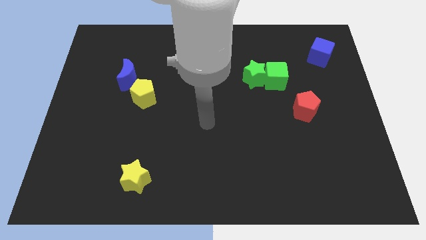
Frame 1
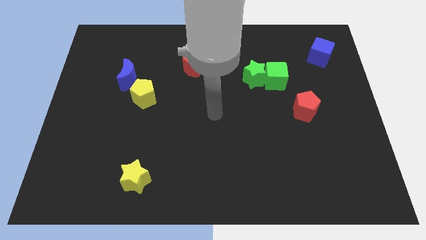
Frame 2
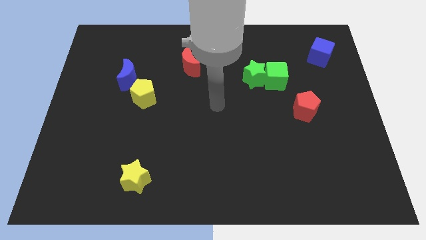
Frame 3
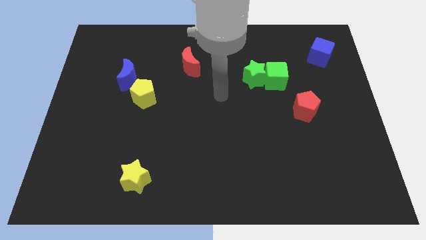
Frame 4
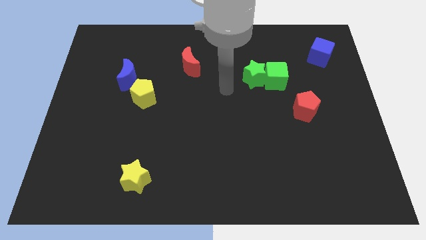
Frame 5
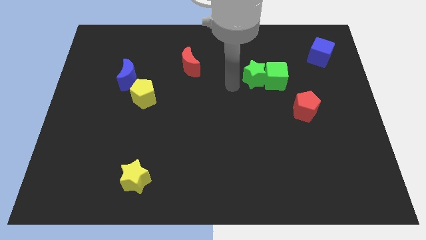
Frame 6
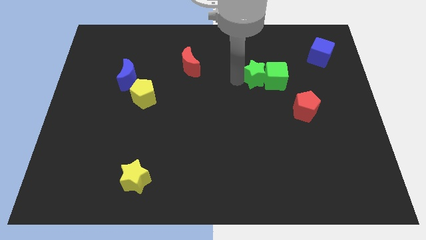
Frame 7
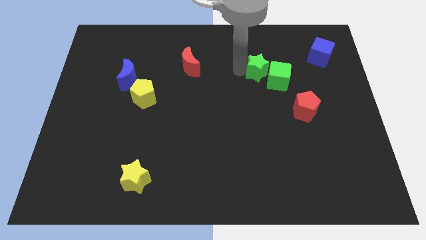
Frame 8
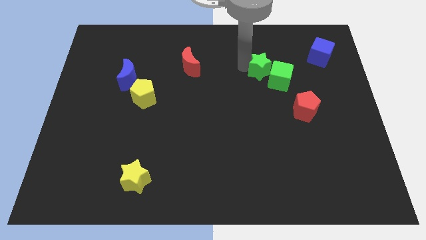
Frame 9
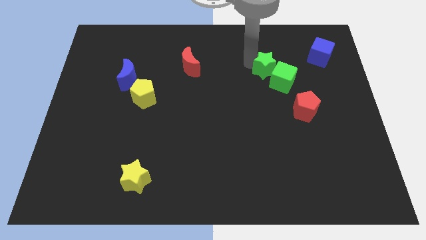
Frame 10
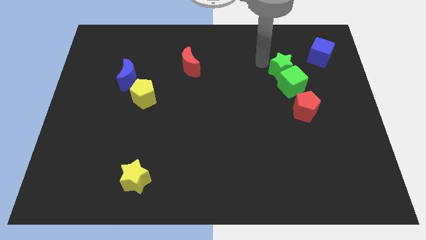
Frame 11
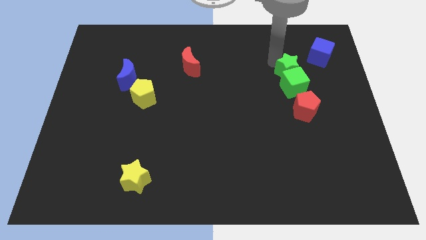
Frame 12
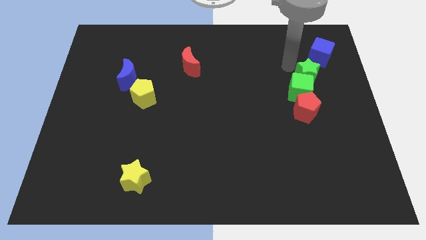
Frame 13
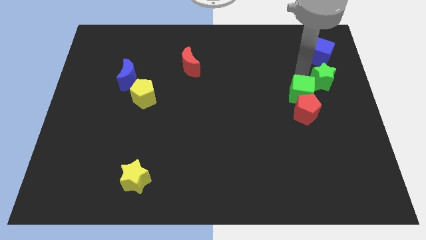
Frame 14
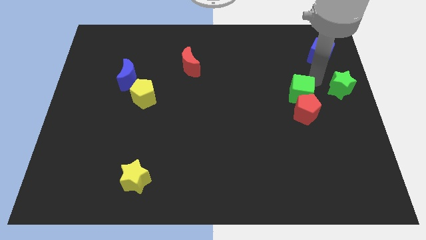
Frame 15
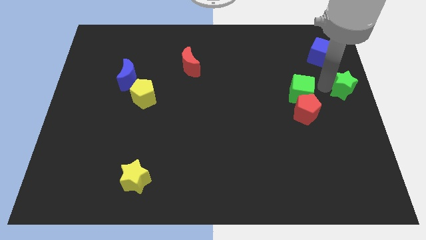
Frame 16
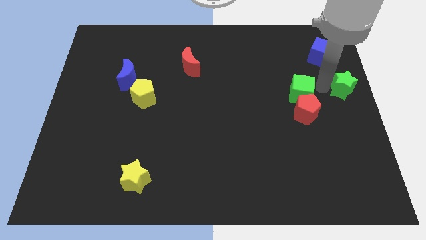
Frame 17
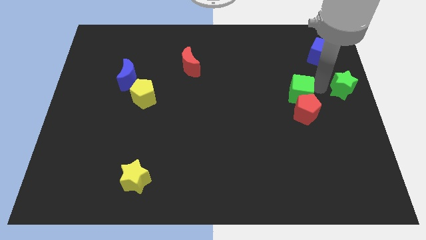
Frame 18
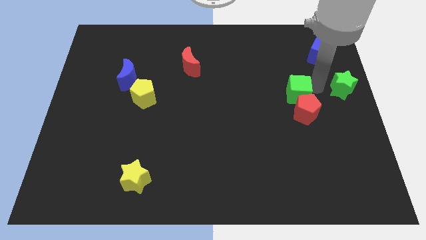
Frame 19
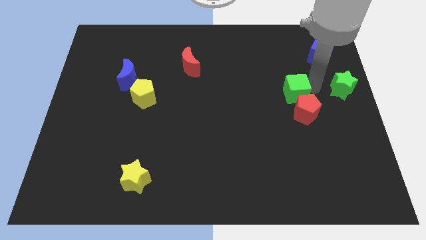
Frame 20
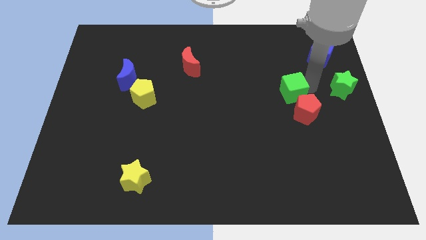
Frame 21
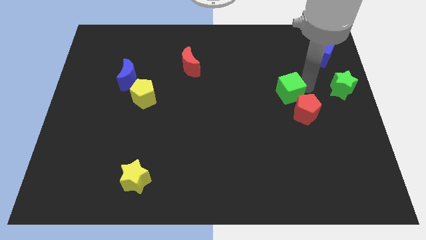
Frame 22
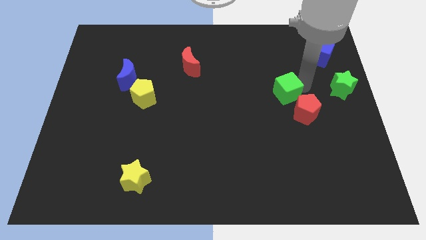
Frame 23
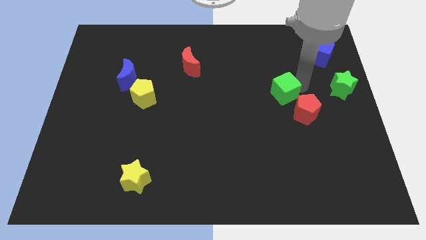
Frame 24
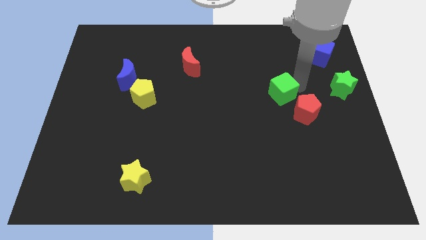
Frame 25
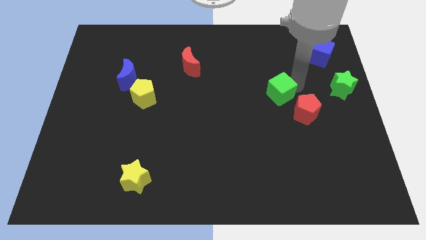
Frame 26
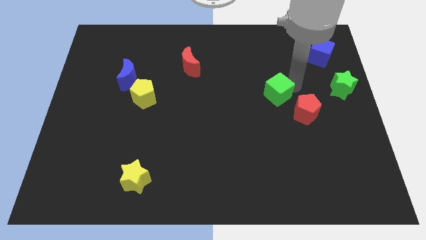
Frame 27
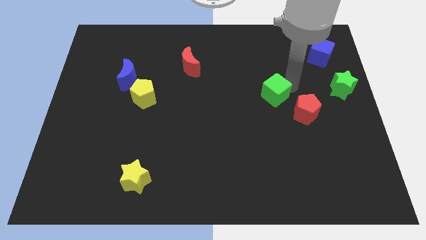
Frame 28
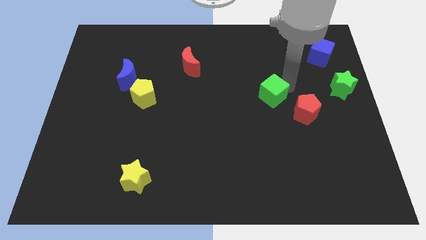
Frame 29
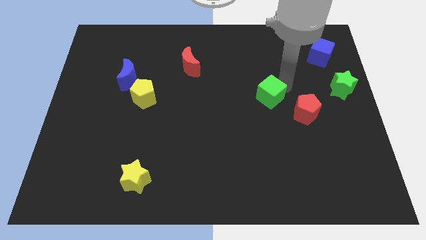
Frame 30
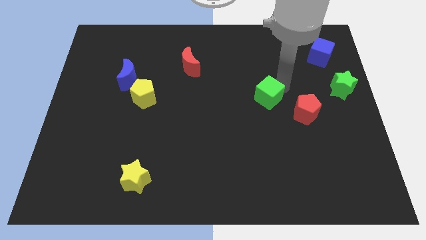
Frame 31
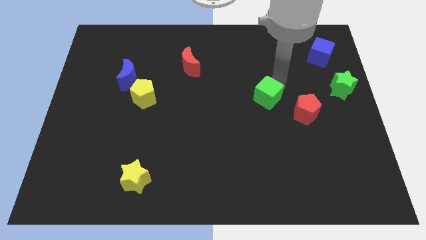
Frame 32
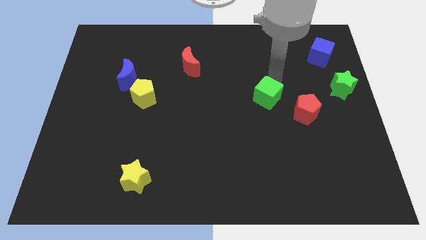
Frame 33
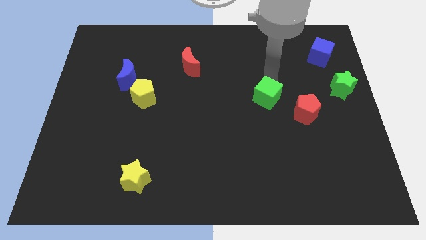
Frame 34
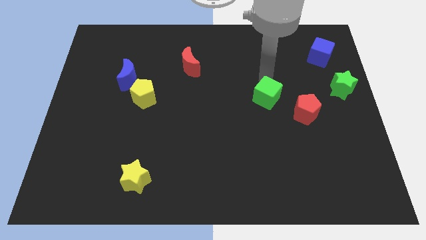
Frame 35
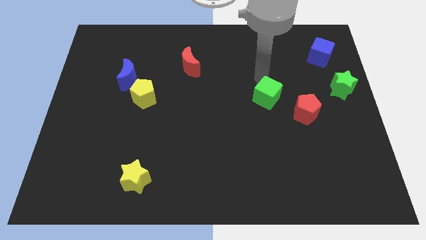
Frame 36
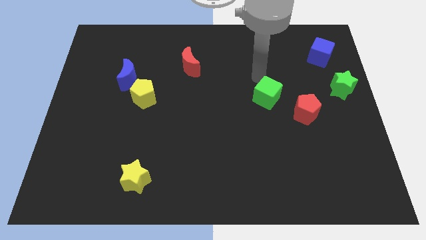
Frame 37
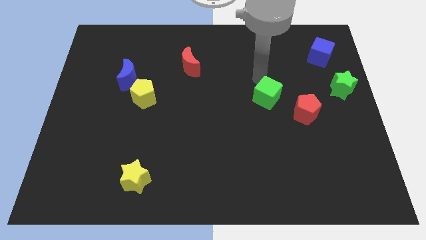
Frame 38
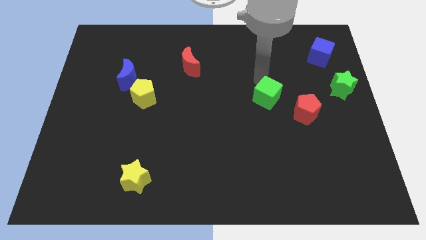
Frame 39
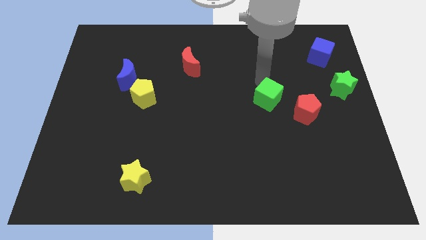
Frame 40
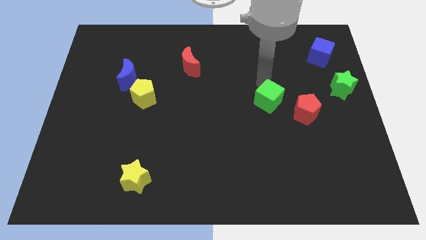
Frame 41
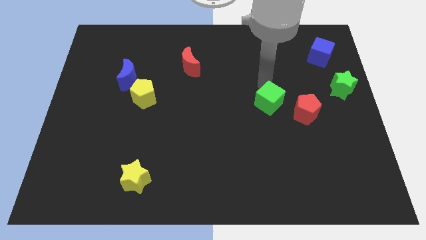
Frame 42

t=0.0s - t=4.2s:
push the green cube somewhat down

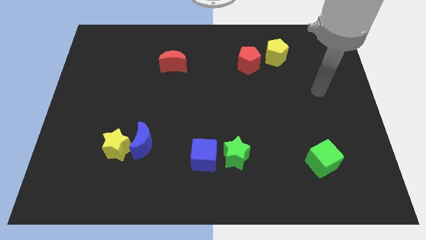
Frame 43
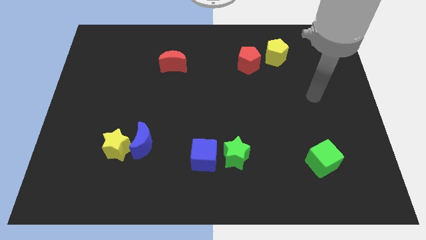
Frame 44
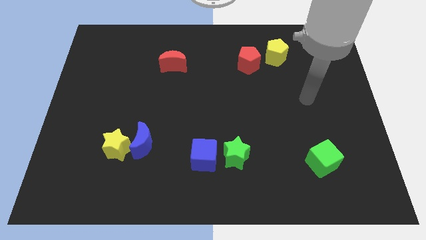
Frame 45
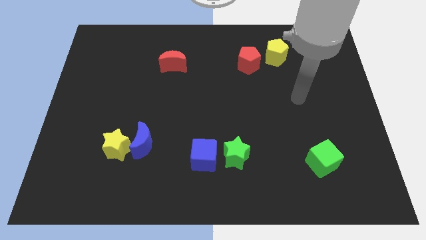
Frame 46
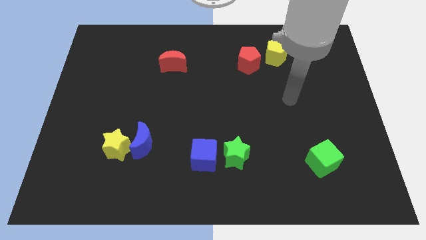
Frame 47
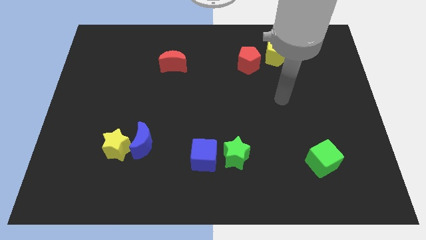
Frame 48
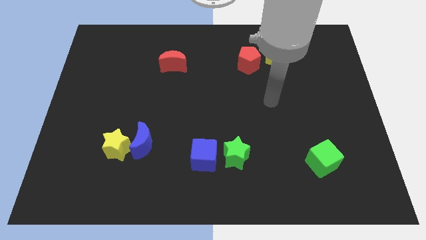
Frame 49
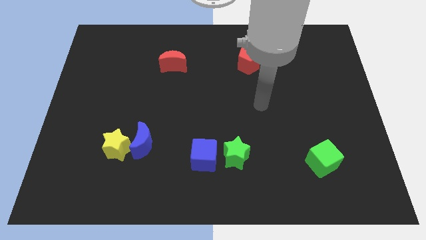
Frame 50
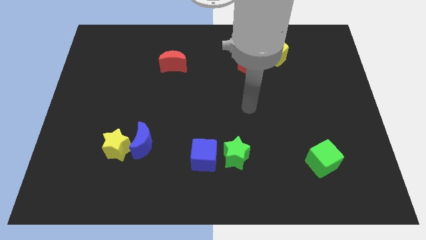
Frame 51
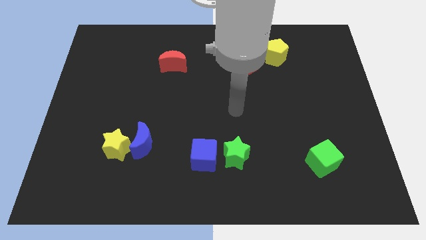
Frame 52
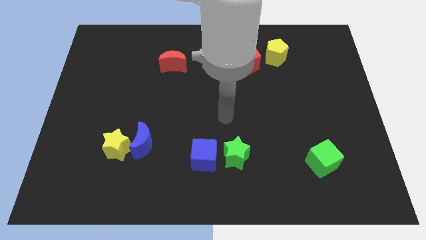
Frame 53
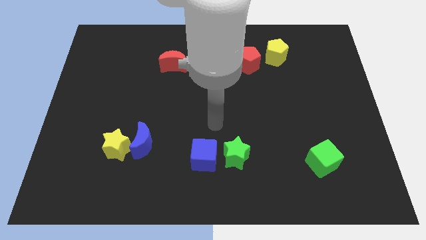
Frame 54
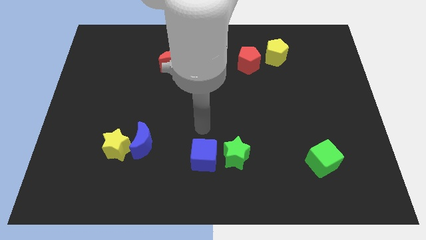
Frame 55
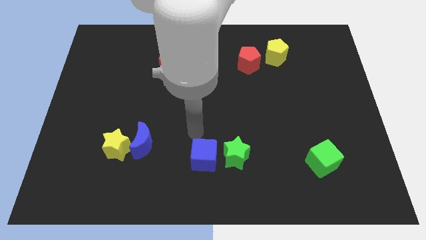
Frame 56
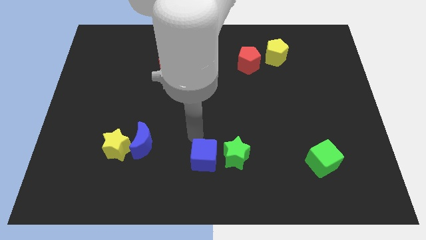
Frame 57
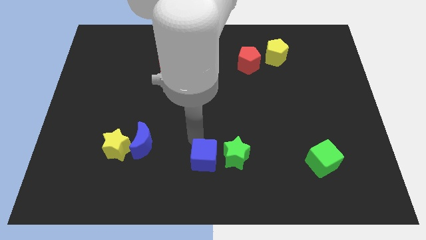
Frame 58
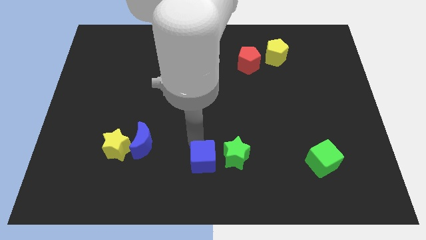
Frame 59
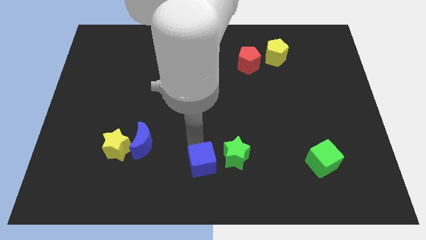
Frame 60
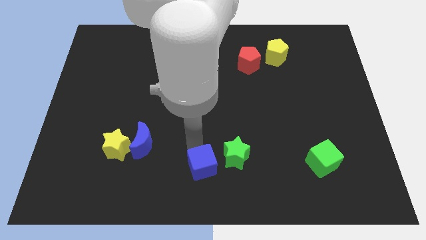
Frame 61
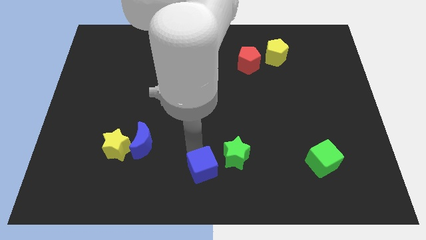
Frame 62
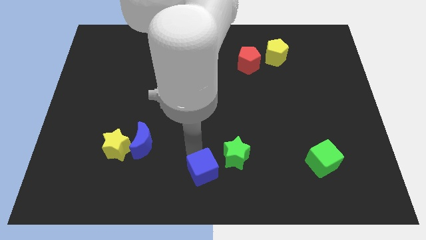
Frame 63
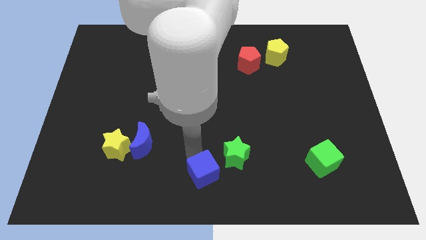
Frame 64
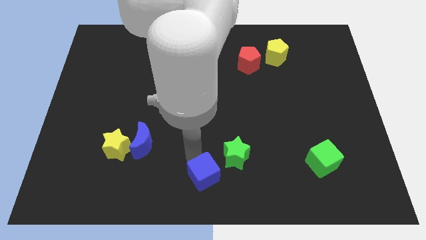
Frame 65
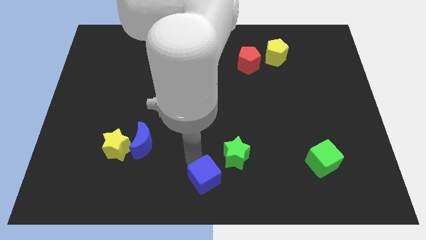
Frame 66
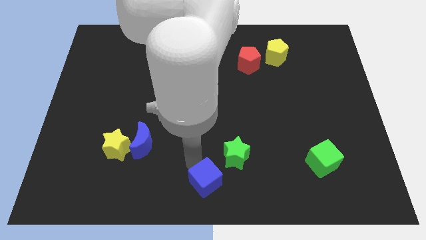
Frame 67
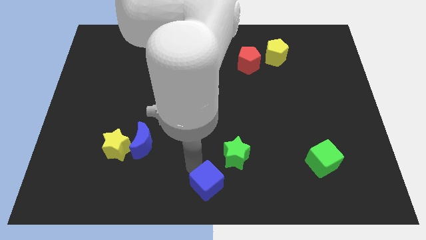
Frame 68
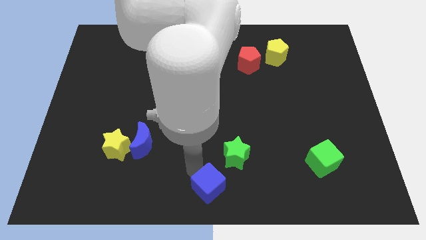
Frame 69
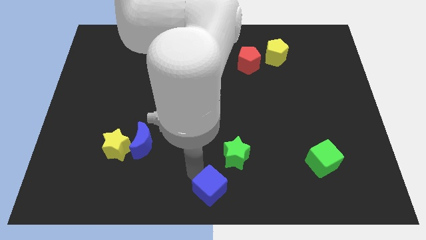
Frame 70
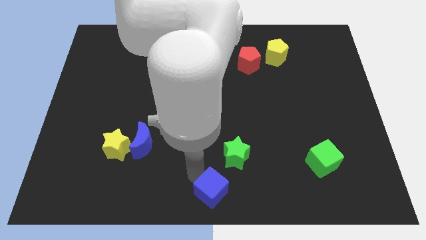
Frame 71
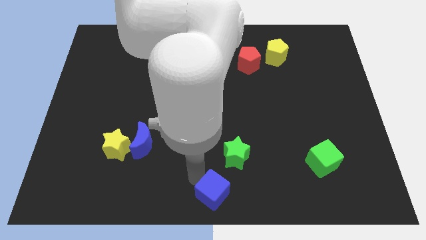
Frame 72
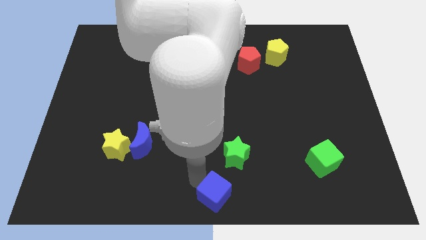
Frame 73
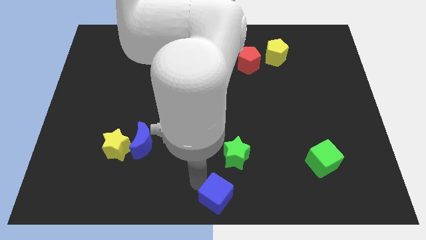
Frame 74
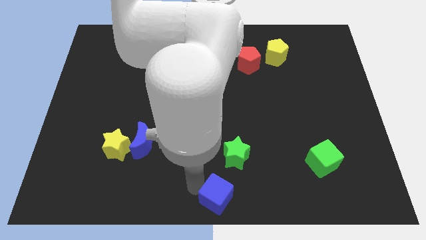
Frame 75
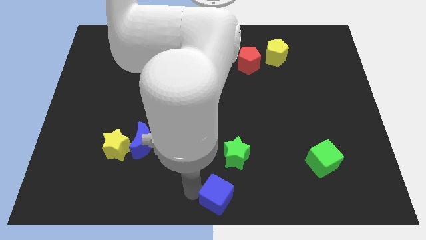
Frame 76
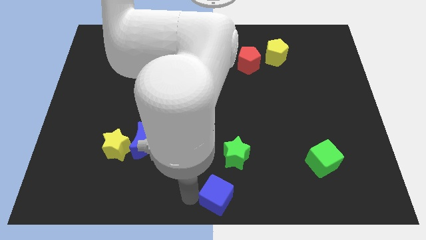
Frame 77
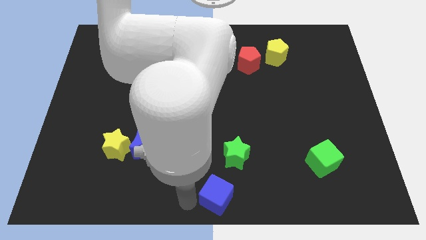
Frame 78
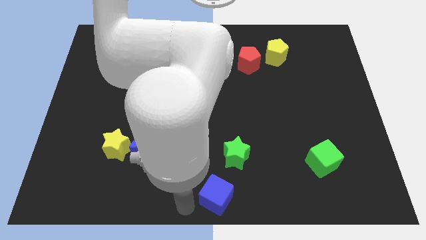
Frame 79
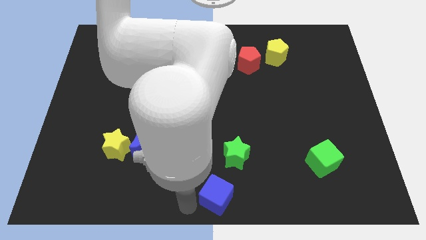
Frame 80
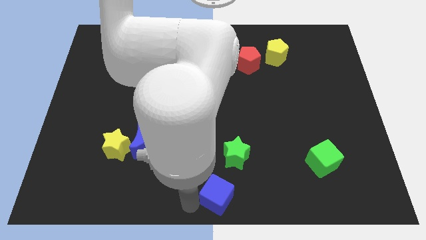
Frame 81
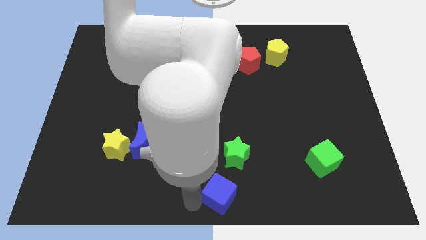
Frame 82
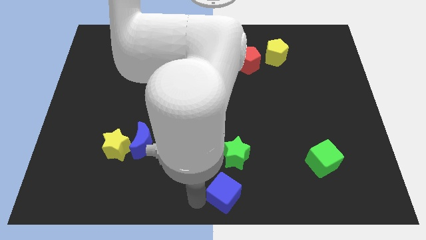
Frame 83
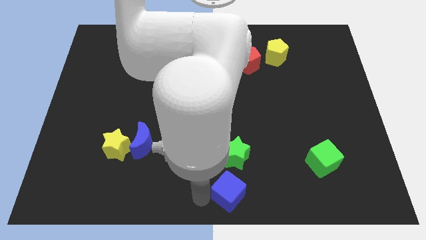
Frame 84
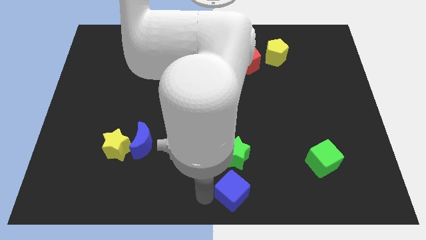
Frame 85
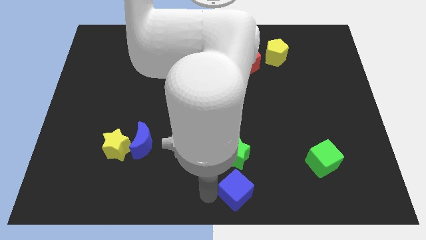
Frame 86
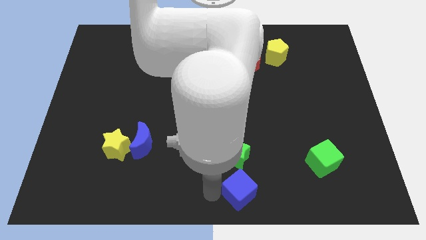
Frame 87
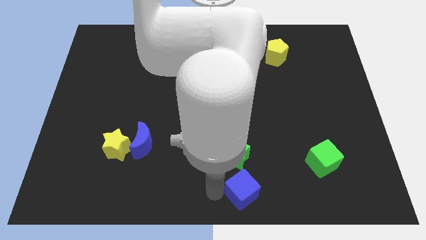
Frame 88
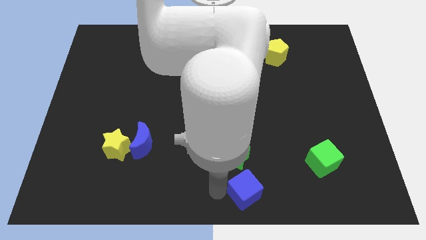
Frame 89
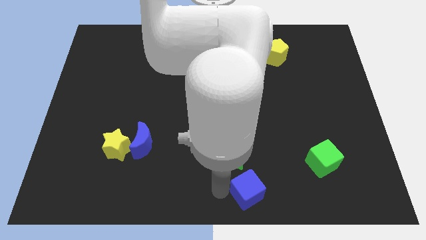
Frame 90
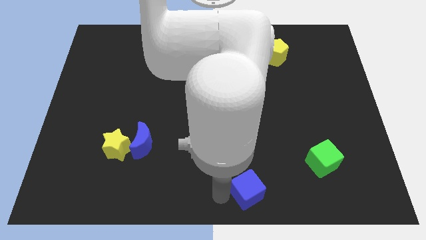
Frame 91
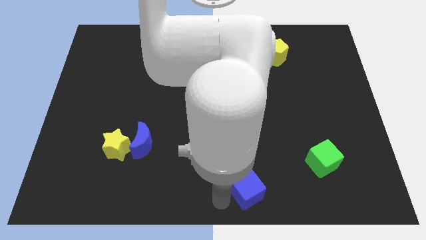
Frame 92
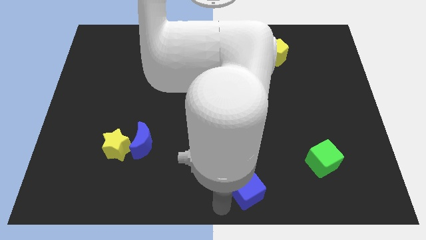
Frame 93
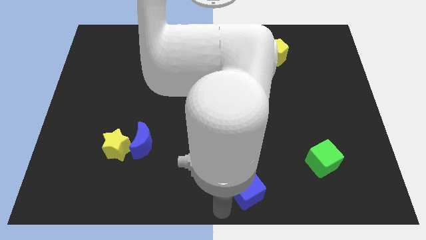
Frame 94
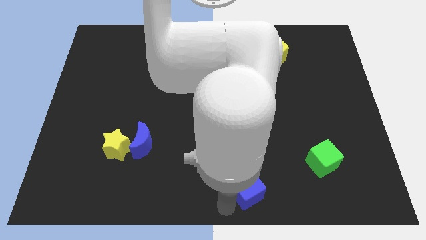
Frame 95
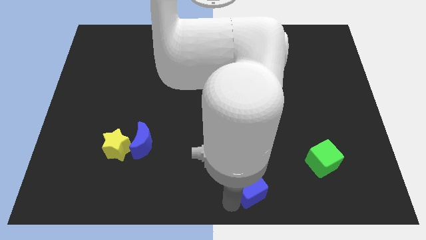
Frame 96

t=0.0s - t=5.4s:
slide the blue cube right somewhat
